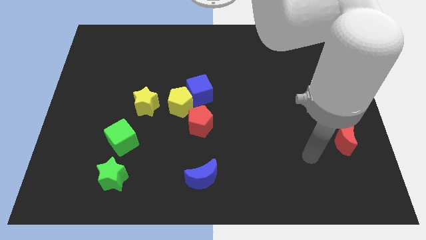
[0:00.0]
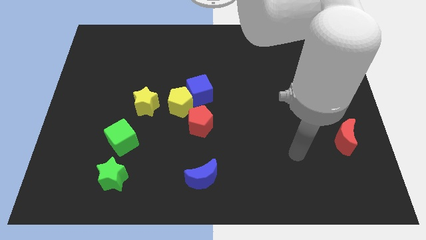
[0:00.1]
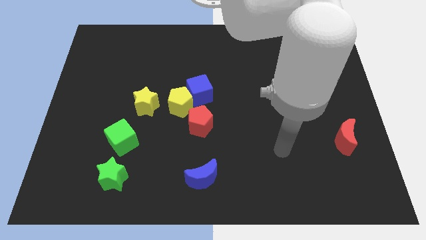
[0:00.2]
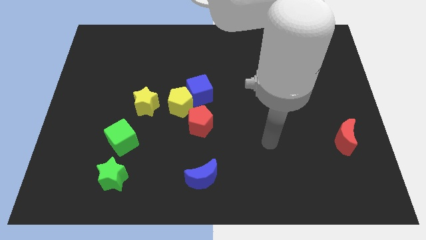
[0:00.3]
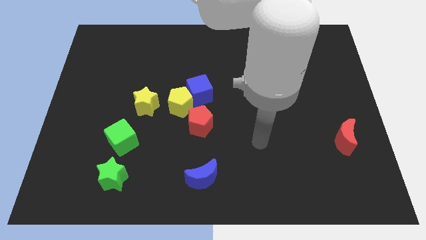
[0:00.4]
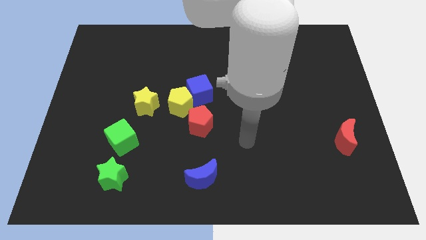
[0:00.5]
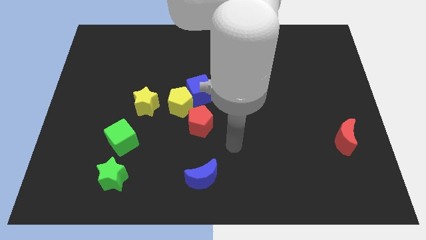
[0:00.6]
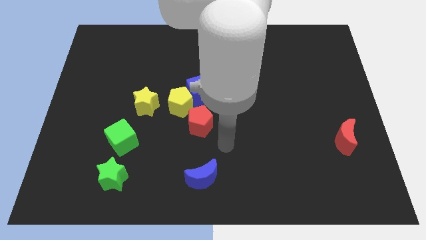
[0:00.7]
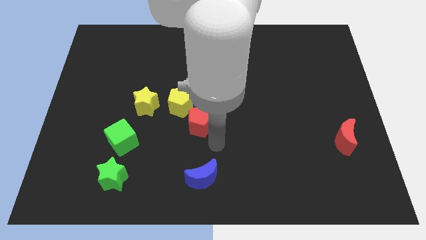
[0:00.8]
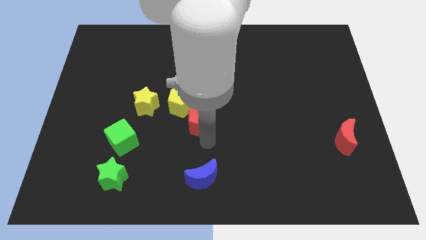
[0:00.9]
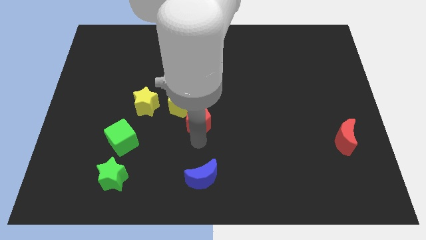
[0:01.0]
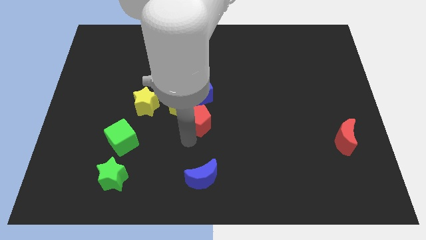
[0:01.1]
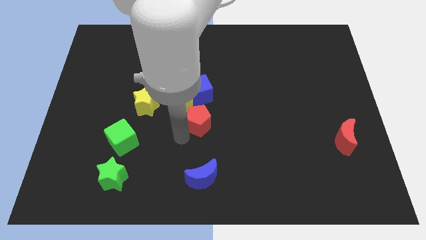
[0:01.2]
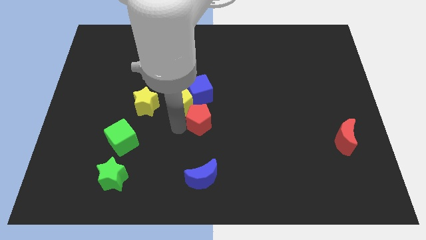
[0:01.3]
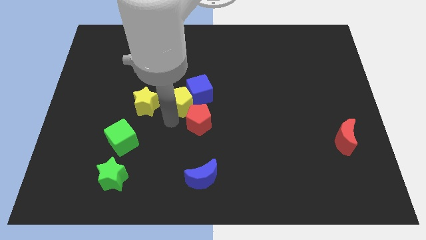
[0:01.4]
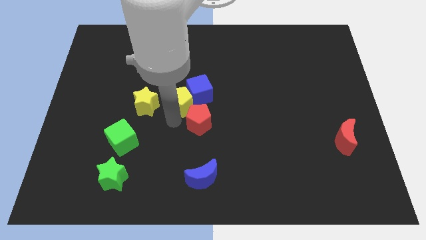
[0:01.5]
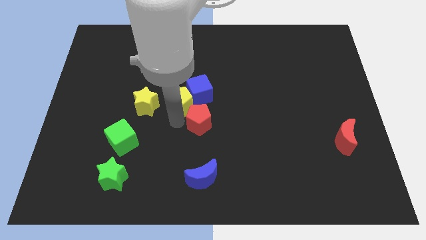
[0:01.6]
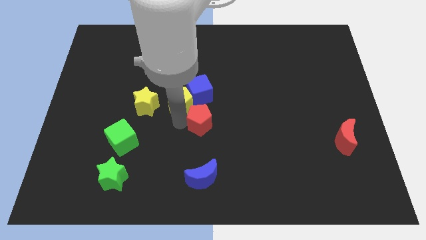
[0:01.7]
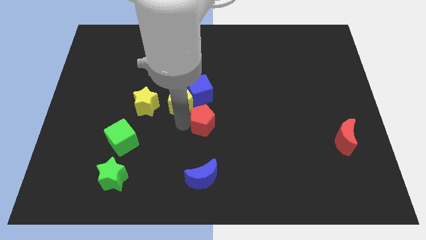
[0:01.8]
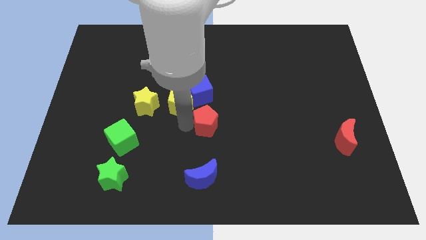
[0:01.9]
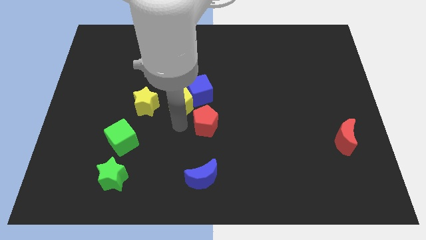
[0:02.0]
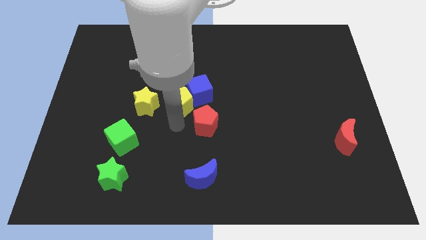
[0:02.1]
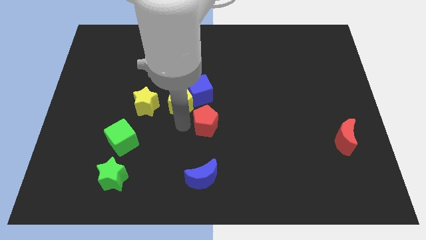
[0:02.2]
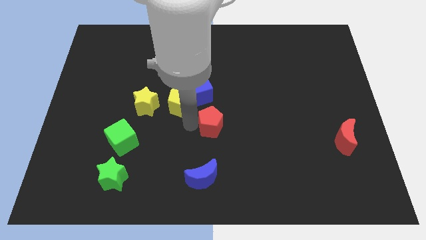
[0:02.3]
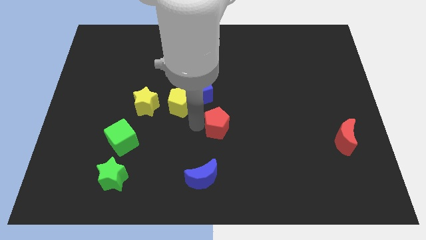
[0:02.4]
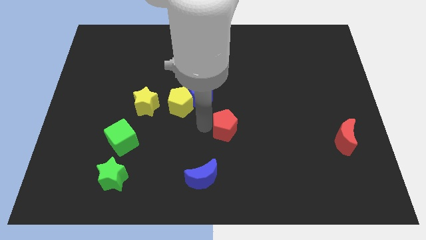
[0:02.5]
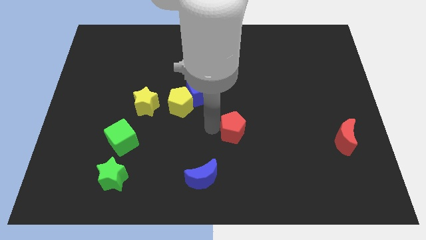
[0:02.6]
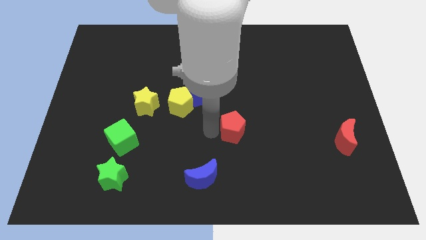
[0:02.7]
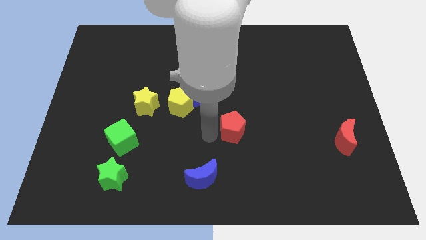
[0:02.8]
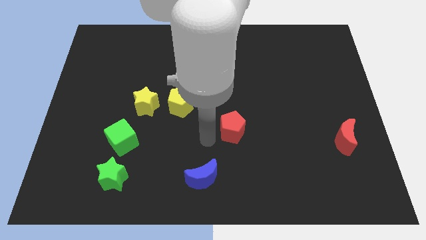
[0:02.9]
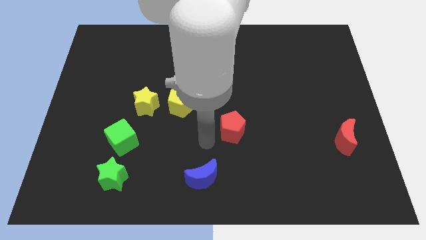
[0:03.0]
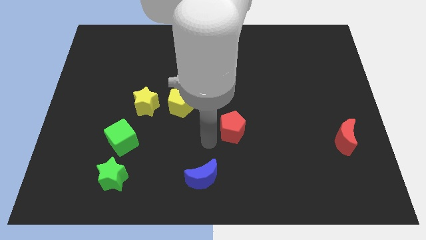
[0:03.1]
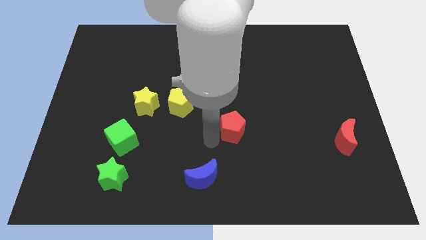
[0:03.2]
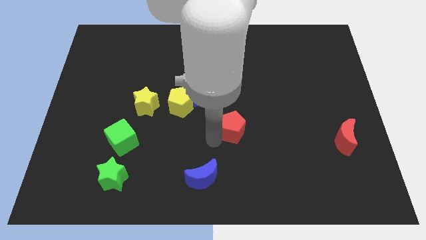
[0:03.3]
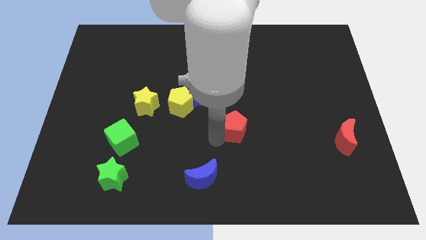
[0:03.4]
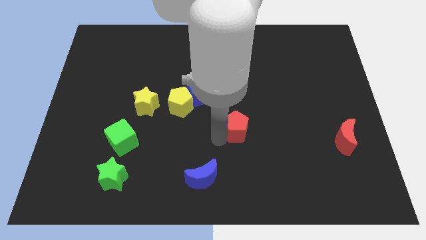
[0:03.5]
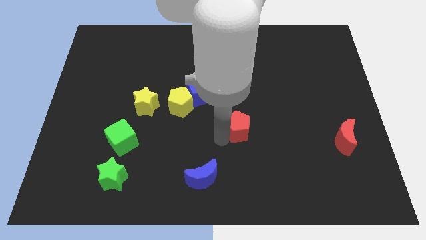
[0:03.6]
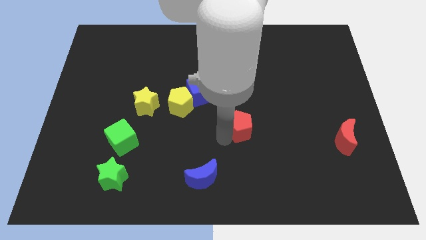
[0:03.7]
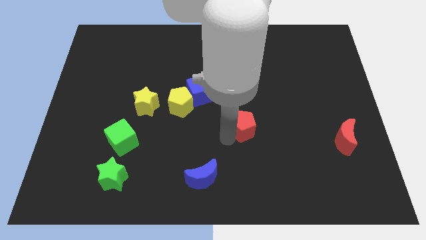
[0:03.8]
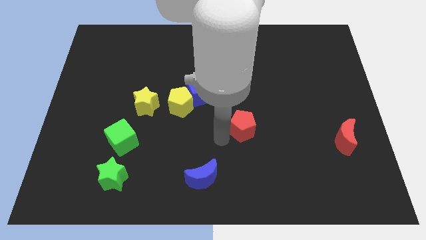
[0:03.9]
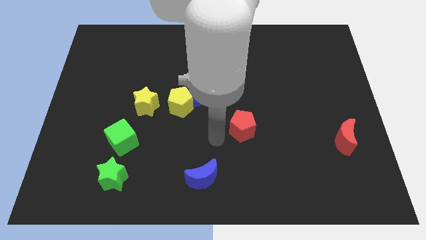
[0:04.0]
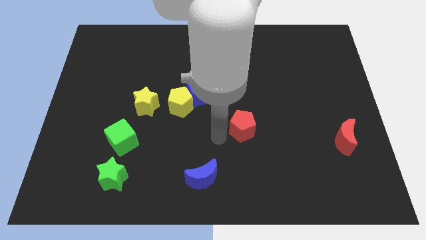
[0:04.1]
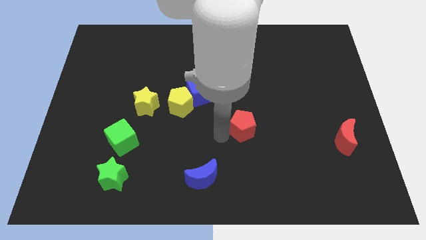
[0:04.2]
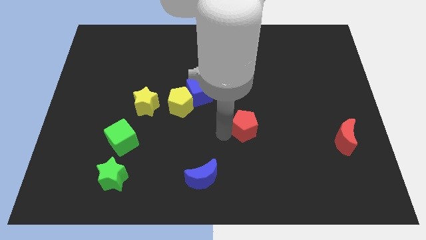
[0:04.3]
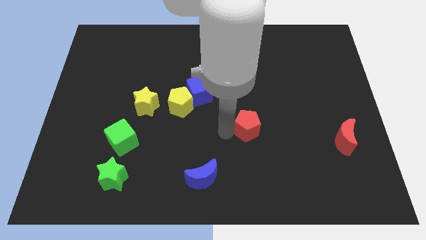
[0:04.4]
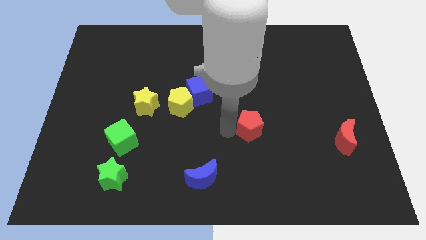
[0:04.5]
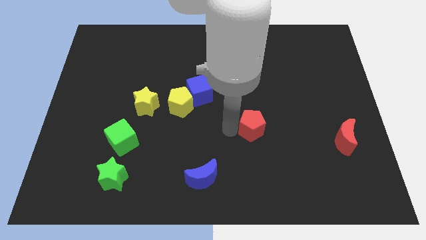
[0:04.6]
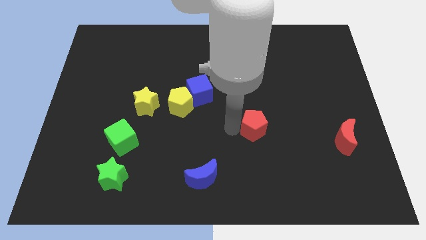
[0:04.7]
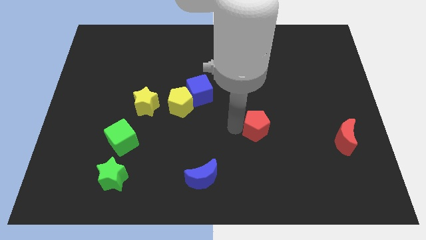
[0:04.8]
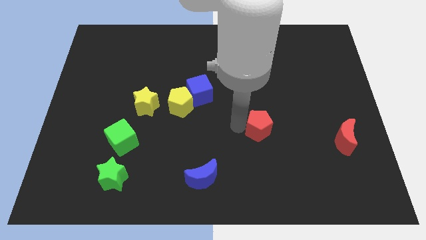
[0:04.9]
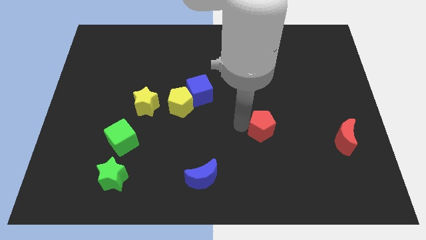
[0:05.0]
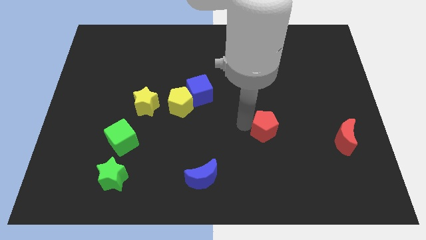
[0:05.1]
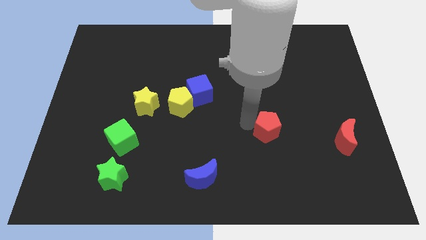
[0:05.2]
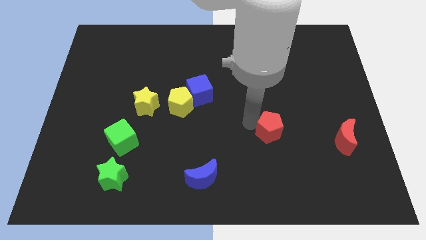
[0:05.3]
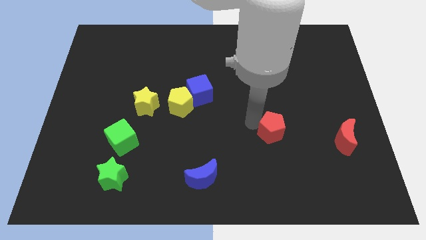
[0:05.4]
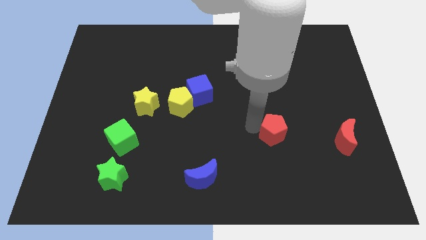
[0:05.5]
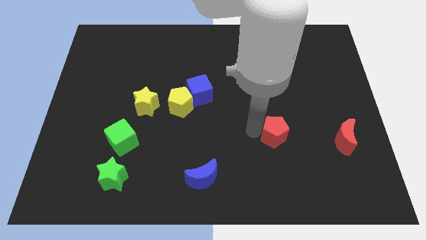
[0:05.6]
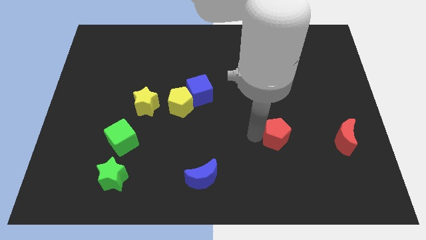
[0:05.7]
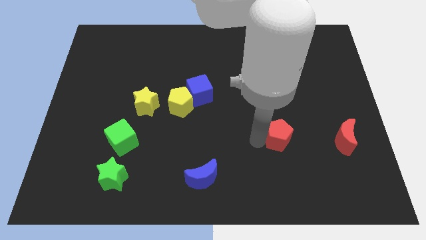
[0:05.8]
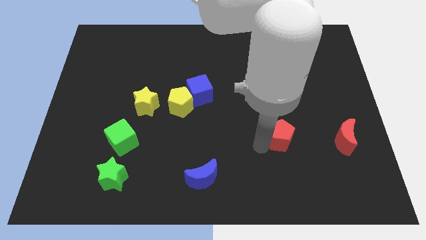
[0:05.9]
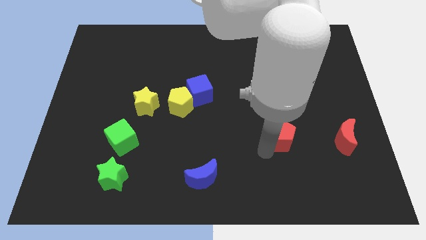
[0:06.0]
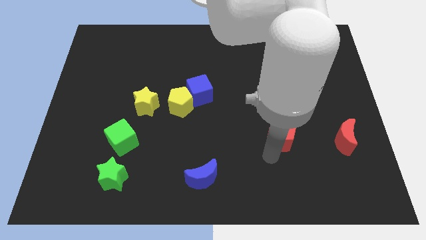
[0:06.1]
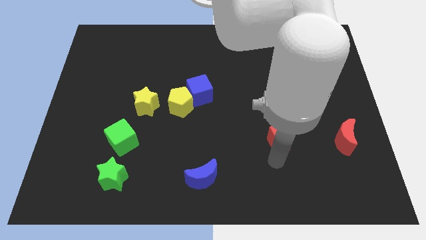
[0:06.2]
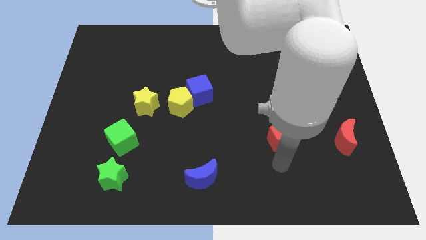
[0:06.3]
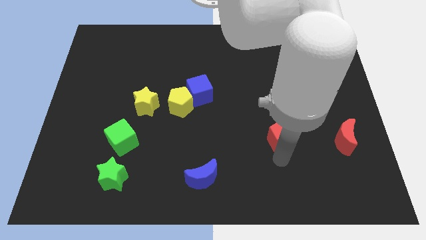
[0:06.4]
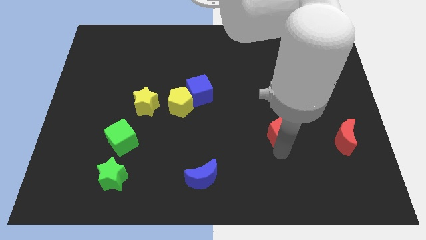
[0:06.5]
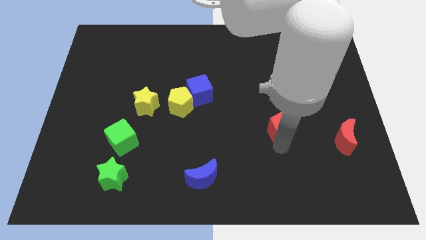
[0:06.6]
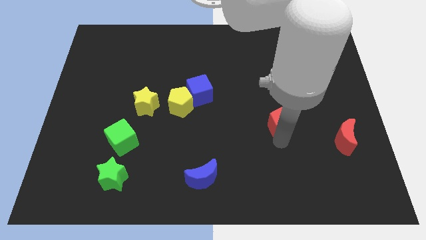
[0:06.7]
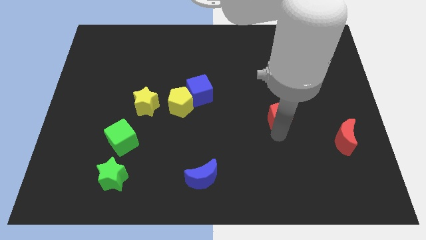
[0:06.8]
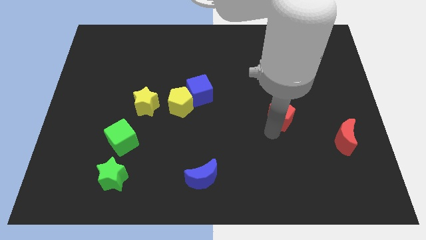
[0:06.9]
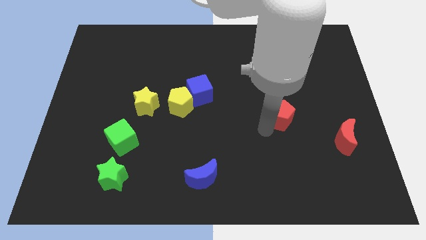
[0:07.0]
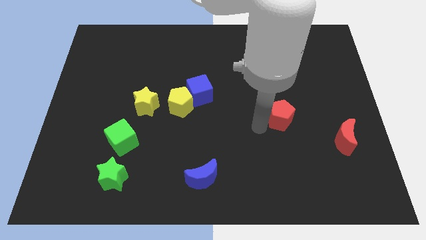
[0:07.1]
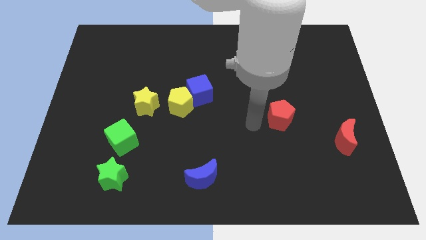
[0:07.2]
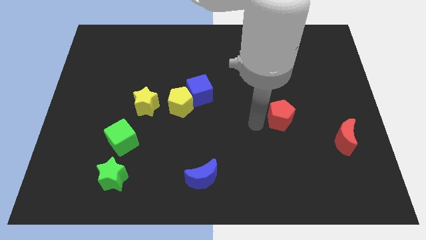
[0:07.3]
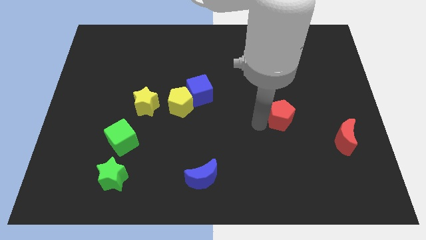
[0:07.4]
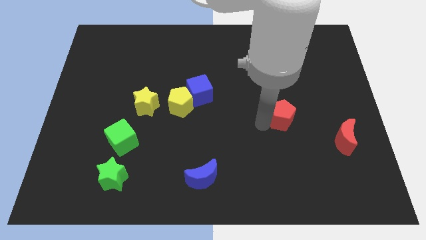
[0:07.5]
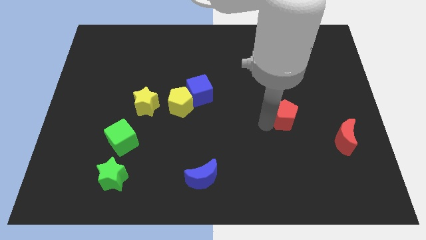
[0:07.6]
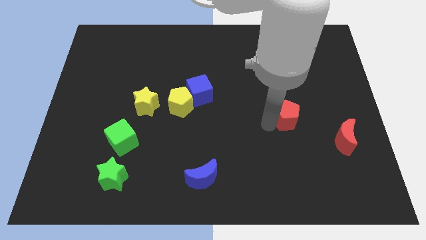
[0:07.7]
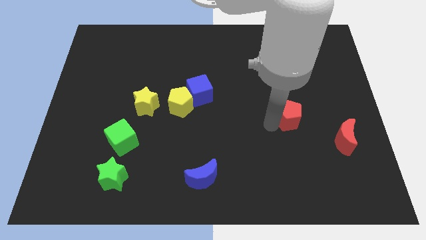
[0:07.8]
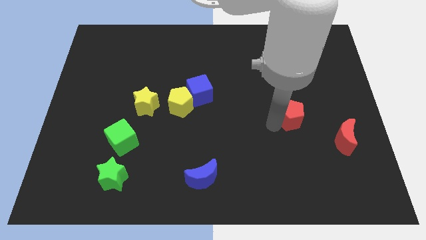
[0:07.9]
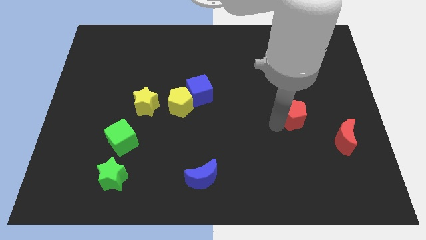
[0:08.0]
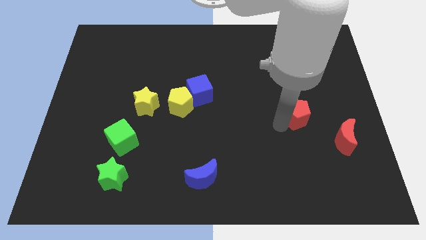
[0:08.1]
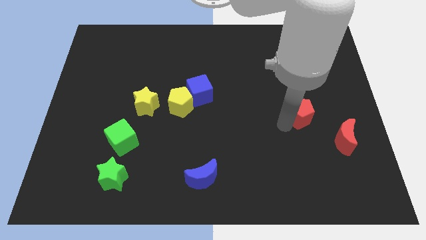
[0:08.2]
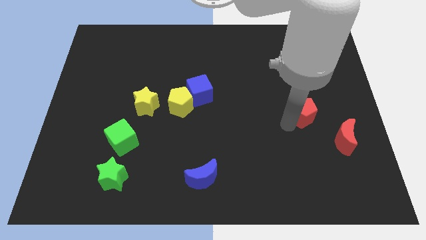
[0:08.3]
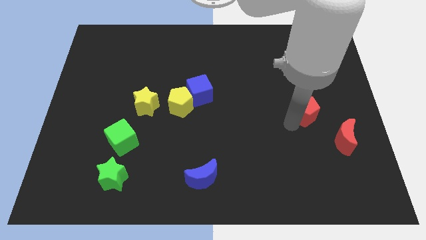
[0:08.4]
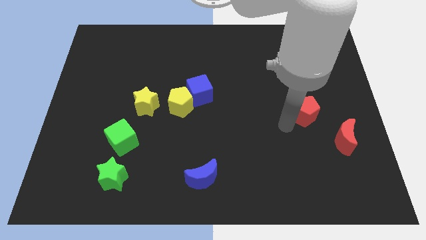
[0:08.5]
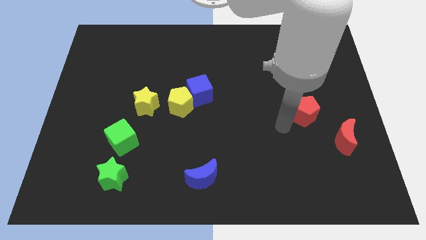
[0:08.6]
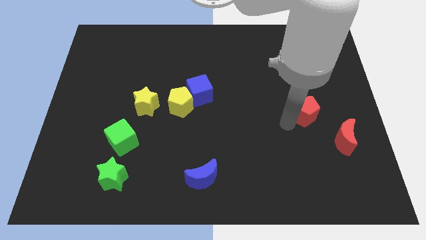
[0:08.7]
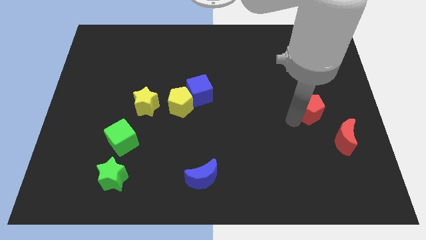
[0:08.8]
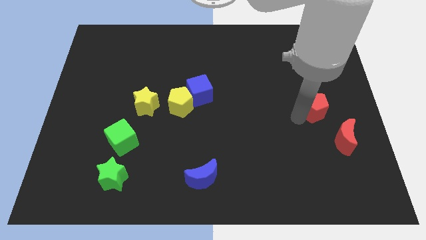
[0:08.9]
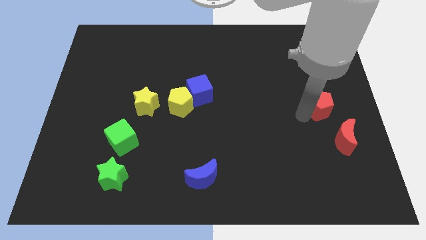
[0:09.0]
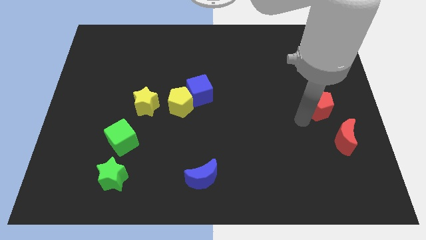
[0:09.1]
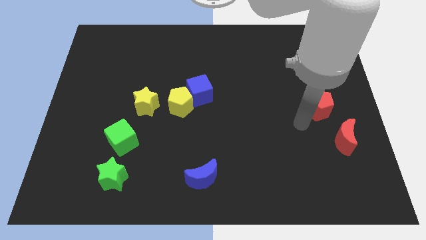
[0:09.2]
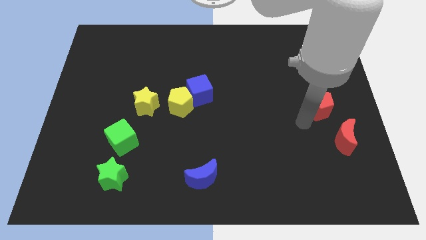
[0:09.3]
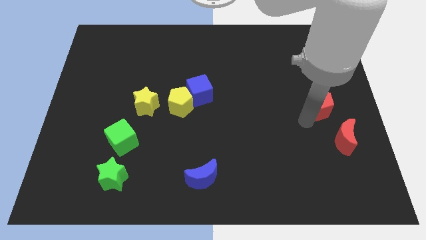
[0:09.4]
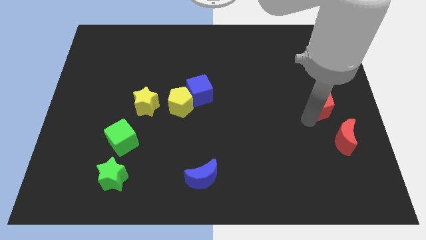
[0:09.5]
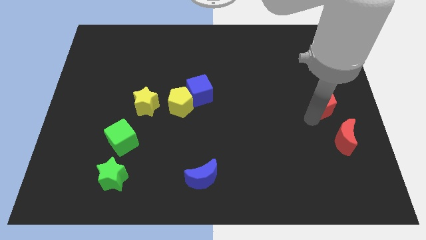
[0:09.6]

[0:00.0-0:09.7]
push the red pentagon to the right side of the board
